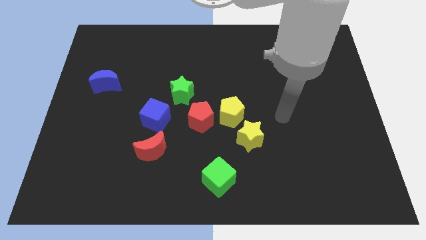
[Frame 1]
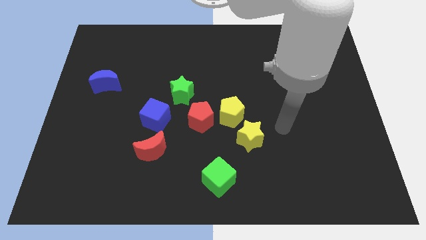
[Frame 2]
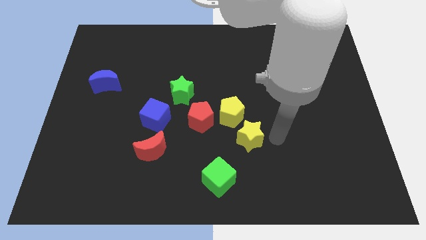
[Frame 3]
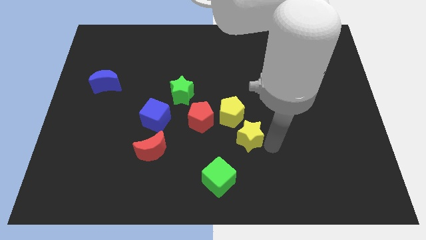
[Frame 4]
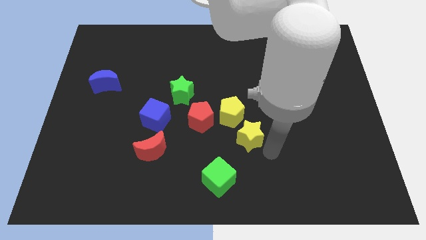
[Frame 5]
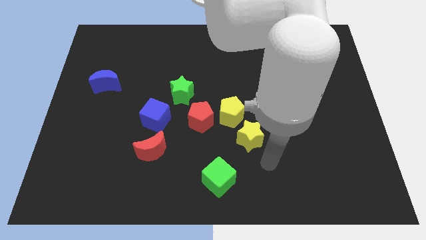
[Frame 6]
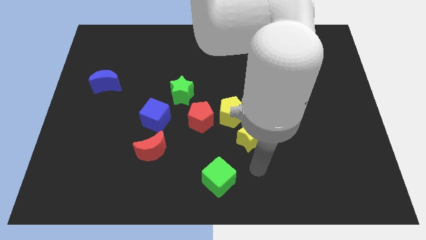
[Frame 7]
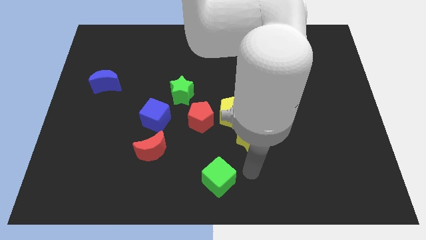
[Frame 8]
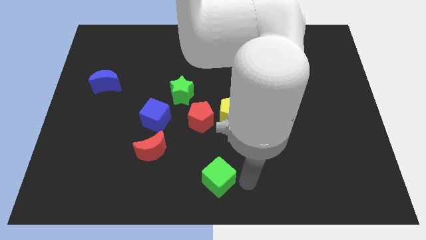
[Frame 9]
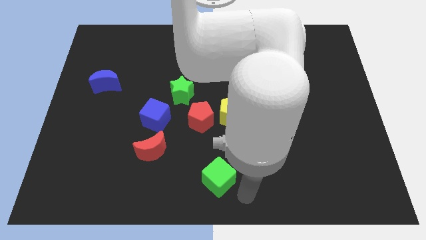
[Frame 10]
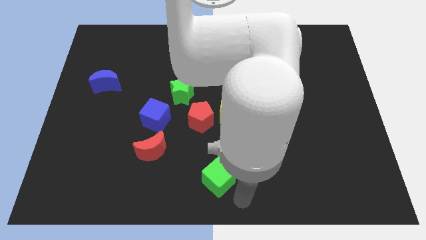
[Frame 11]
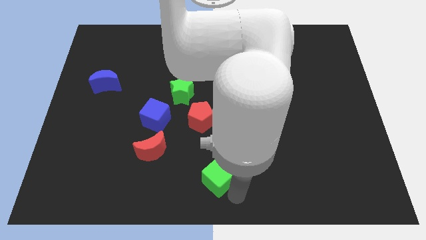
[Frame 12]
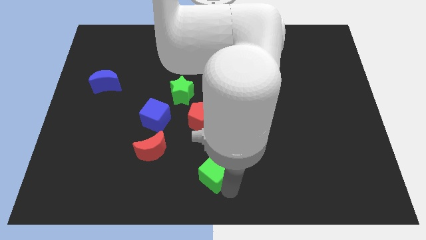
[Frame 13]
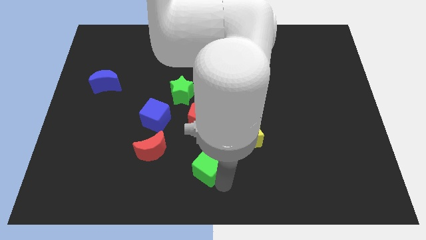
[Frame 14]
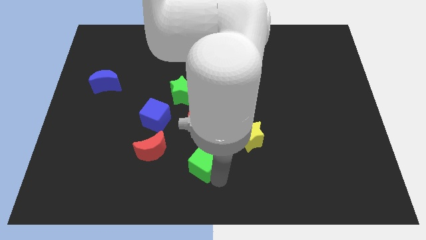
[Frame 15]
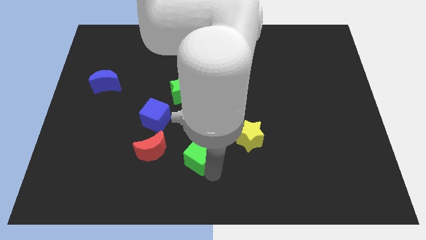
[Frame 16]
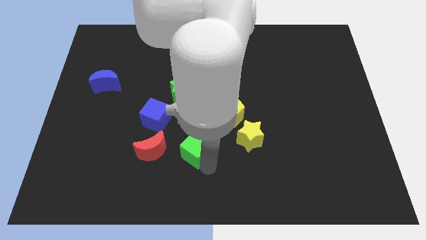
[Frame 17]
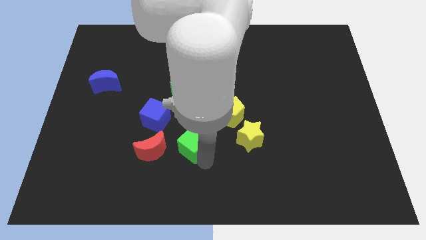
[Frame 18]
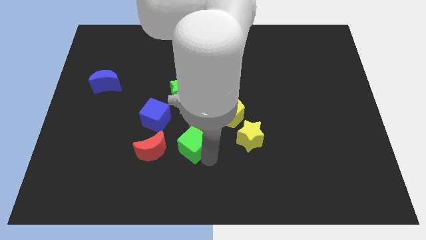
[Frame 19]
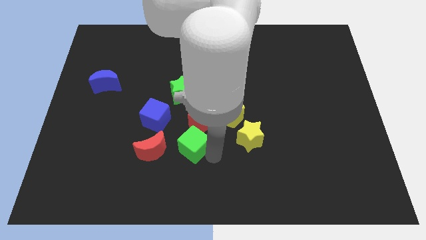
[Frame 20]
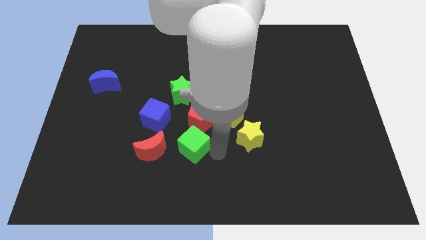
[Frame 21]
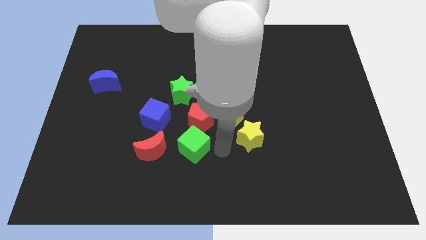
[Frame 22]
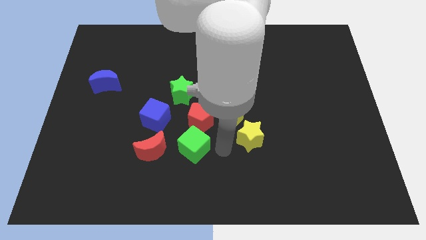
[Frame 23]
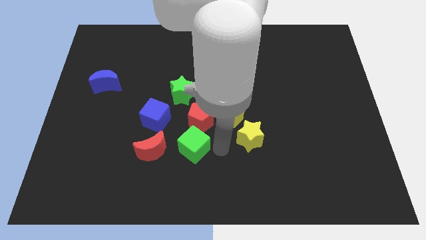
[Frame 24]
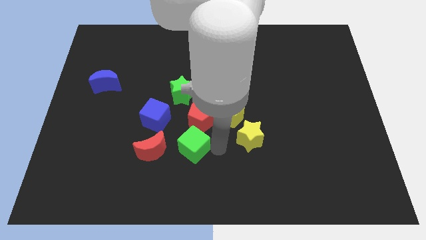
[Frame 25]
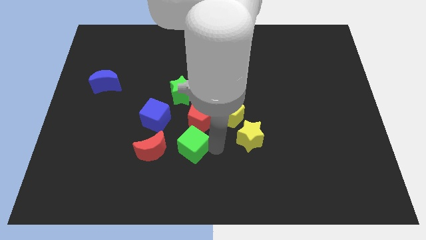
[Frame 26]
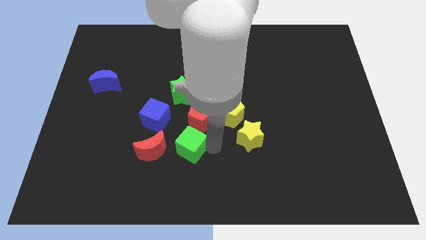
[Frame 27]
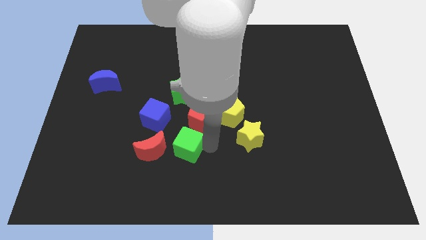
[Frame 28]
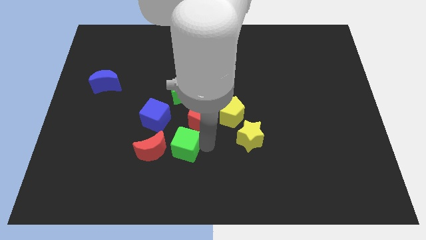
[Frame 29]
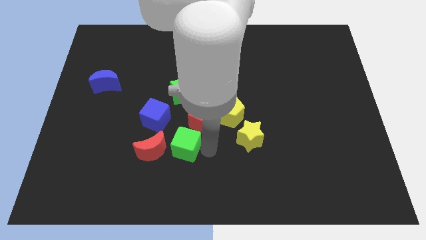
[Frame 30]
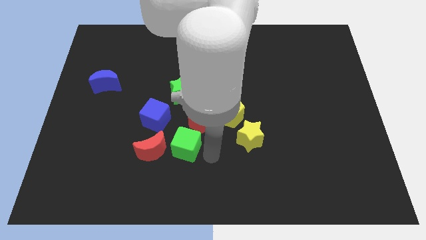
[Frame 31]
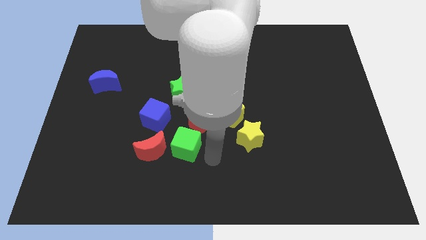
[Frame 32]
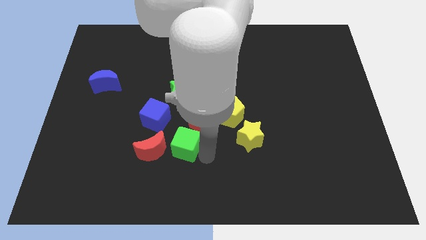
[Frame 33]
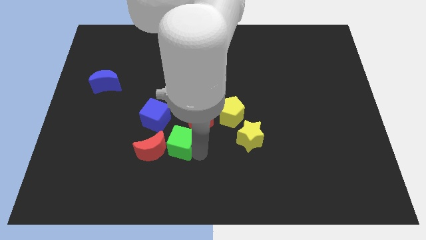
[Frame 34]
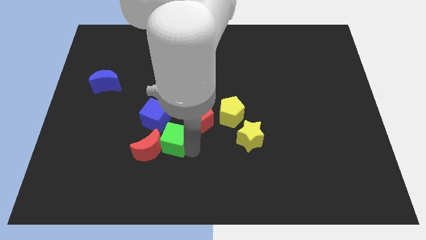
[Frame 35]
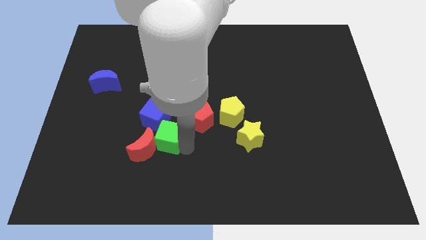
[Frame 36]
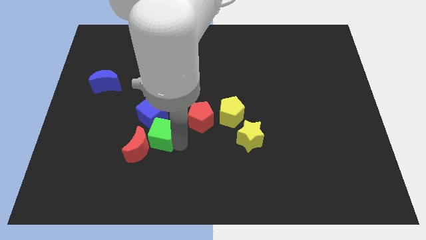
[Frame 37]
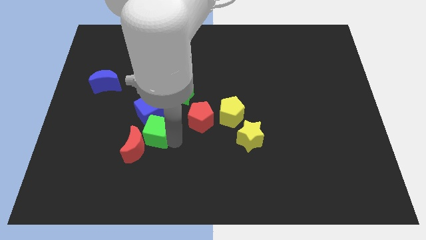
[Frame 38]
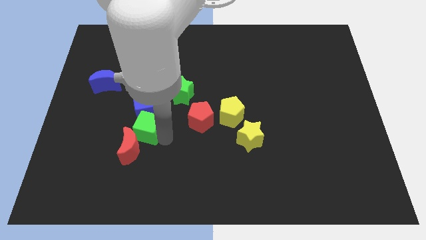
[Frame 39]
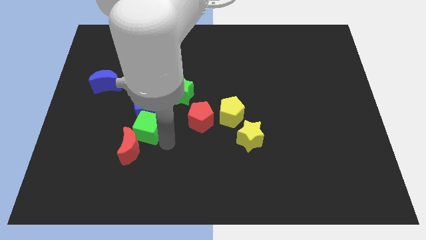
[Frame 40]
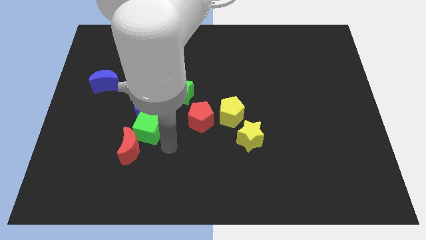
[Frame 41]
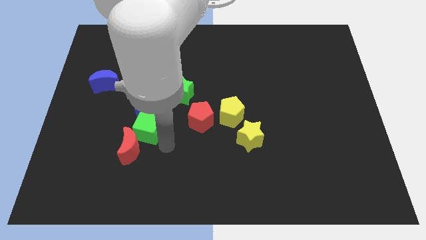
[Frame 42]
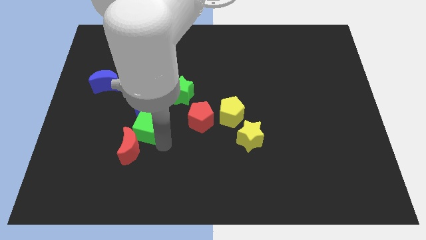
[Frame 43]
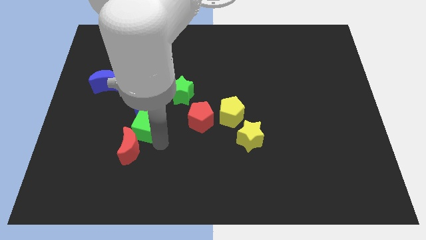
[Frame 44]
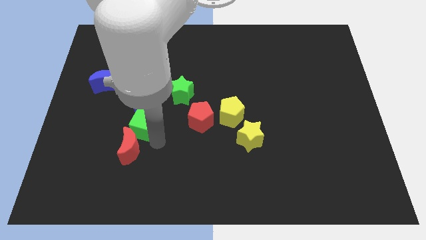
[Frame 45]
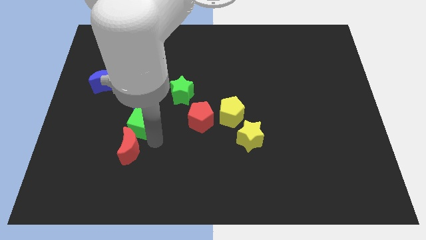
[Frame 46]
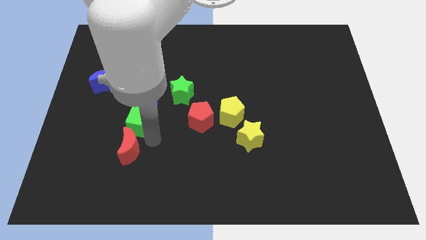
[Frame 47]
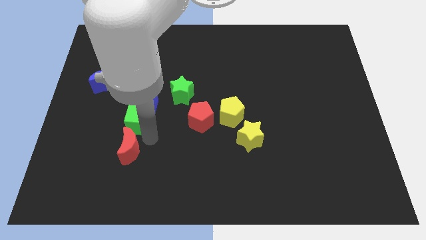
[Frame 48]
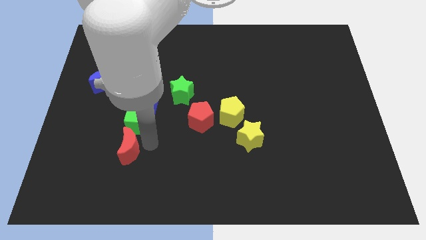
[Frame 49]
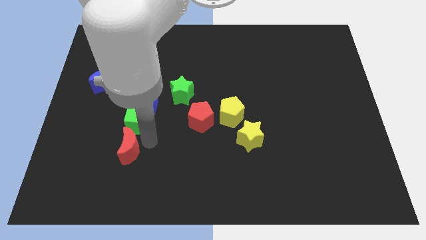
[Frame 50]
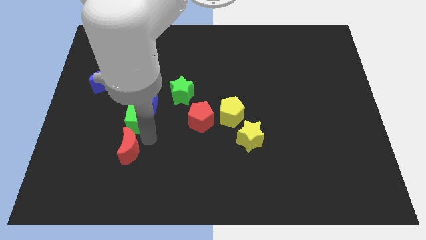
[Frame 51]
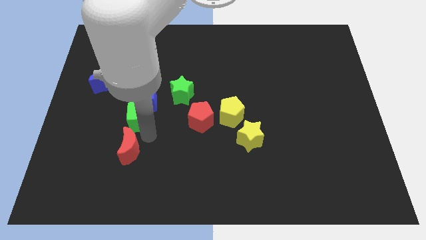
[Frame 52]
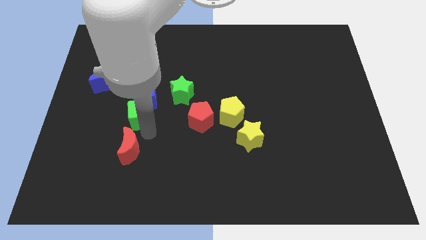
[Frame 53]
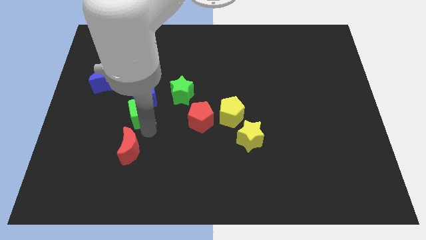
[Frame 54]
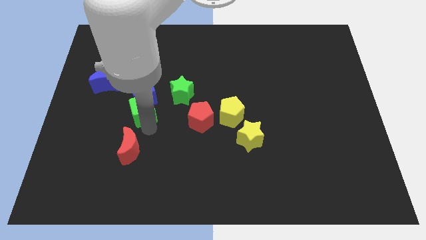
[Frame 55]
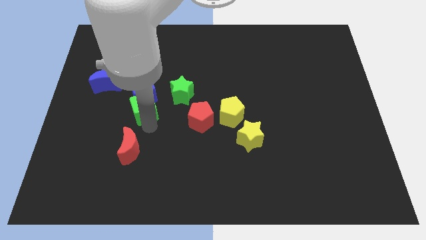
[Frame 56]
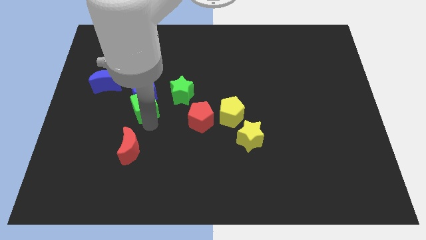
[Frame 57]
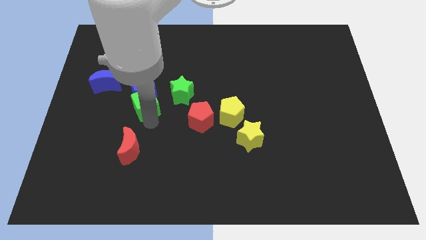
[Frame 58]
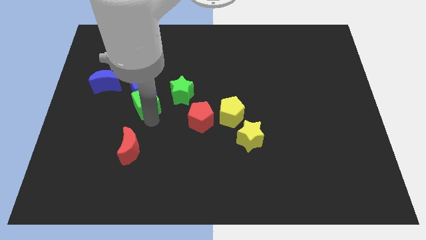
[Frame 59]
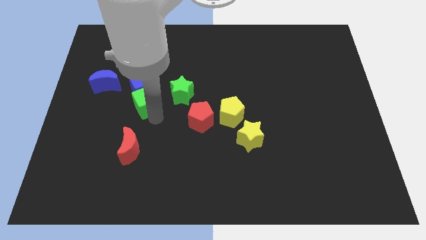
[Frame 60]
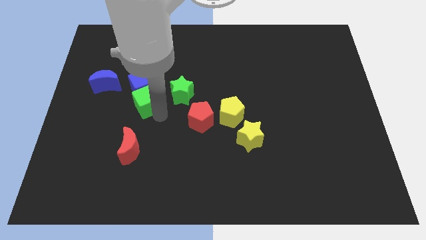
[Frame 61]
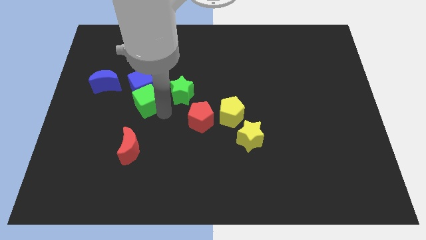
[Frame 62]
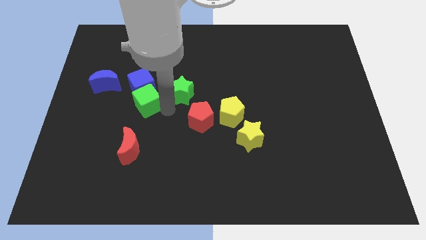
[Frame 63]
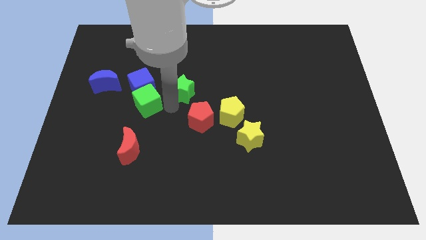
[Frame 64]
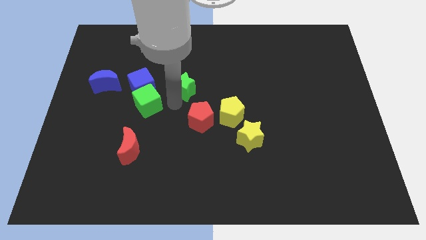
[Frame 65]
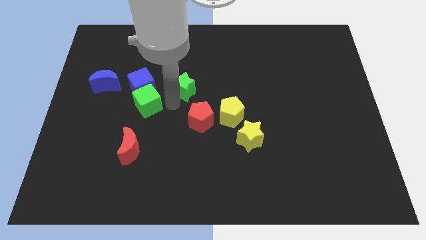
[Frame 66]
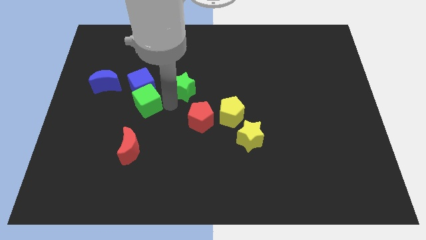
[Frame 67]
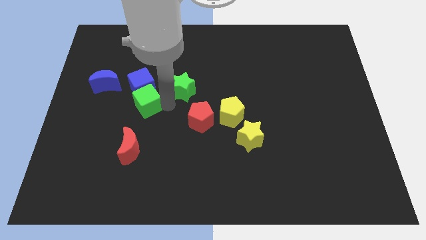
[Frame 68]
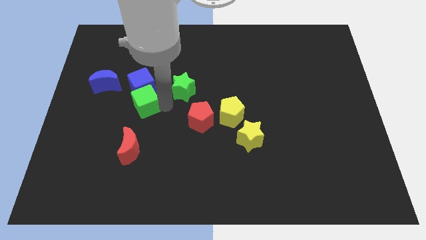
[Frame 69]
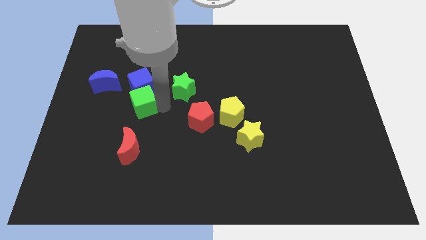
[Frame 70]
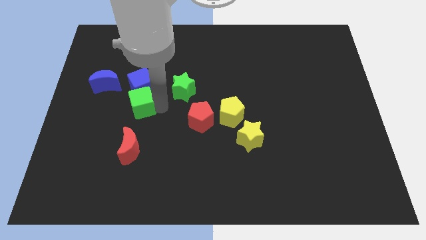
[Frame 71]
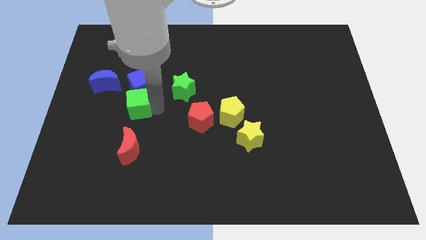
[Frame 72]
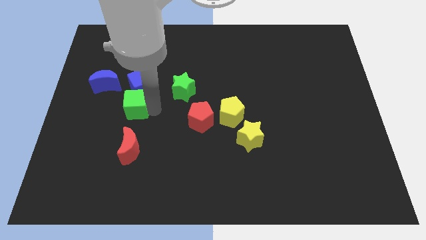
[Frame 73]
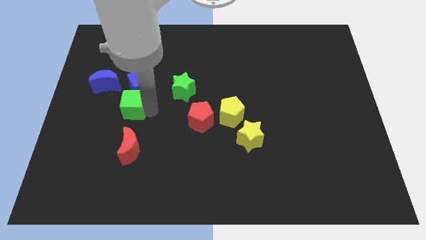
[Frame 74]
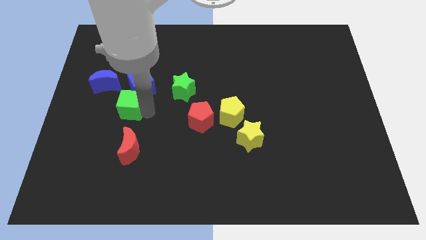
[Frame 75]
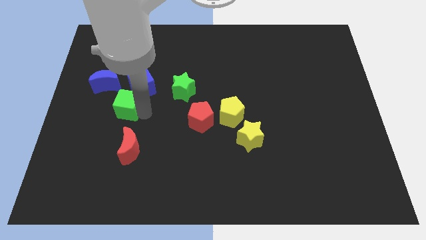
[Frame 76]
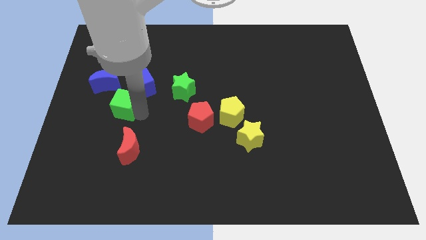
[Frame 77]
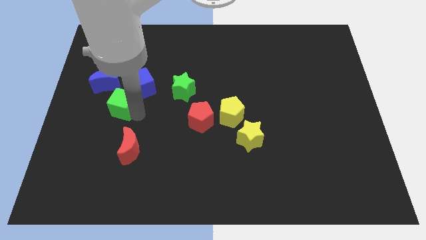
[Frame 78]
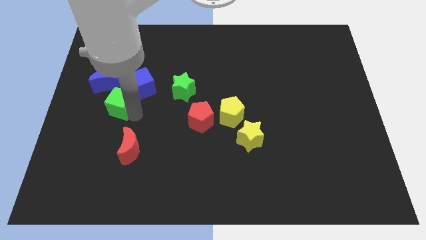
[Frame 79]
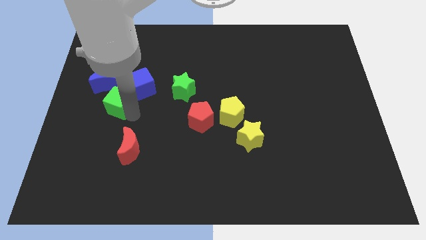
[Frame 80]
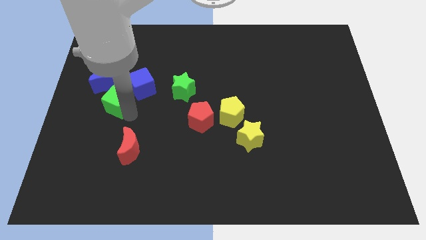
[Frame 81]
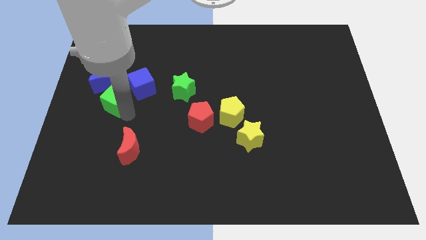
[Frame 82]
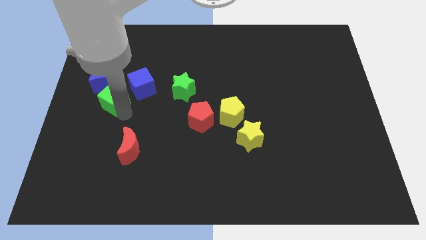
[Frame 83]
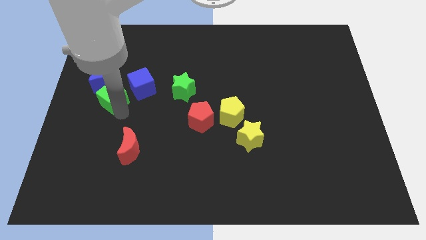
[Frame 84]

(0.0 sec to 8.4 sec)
move the green cube towards the blue moon
